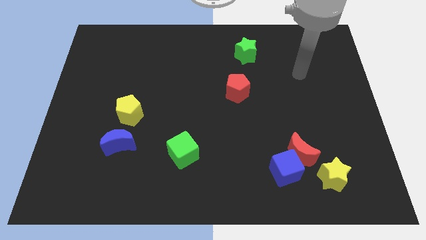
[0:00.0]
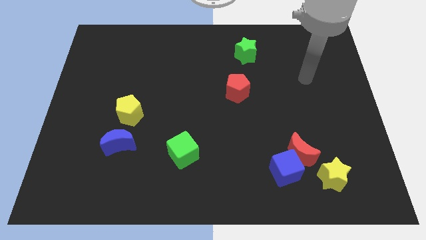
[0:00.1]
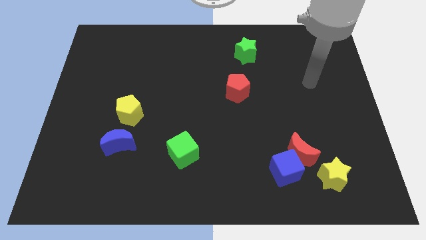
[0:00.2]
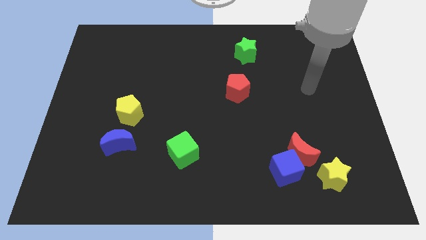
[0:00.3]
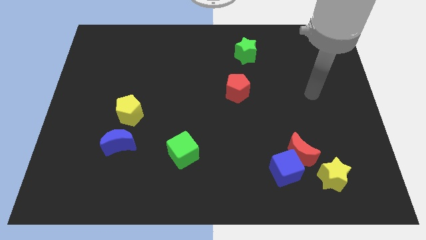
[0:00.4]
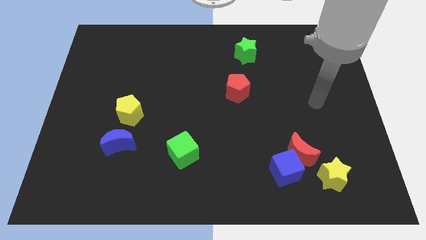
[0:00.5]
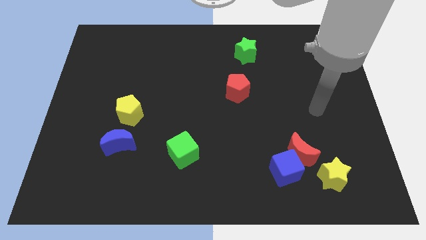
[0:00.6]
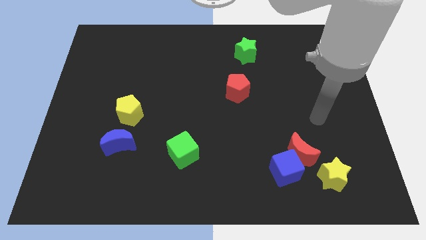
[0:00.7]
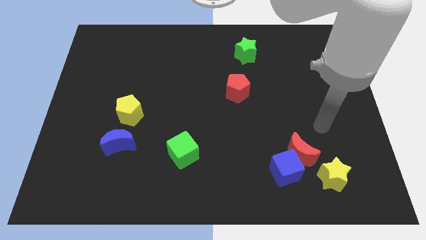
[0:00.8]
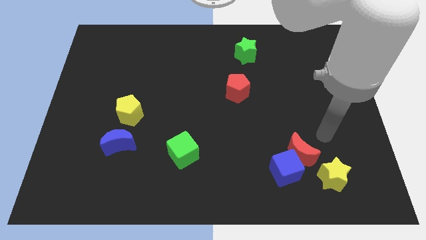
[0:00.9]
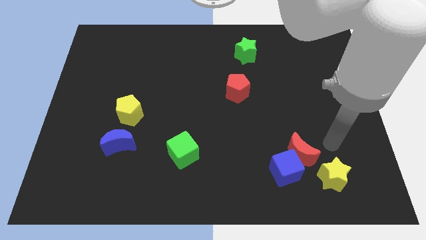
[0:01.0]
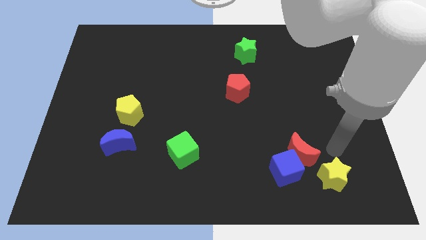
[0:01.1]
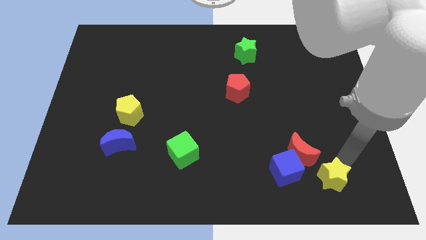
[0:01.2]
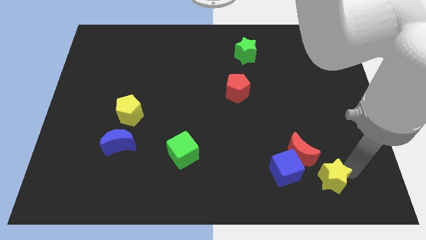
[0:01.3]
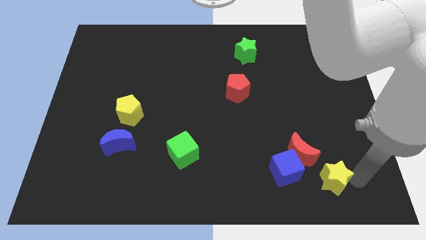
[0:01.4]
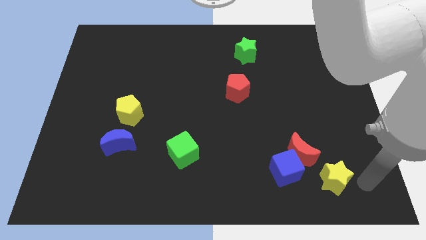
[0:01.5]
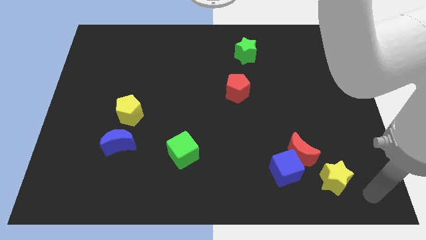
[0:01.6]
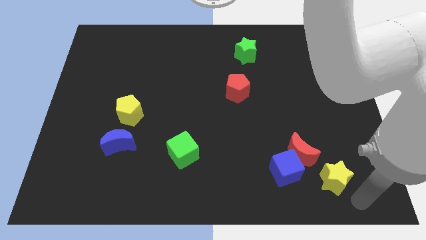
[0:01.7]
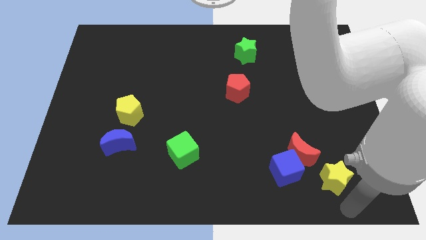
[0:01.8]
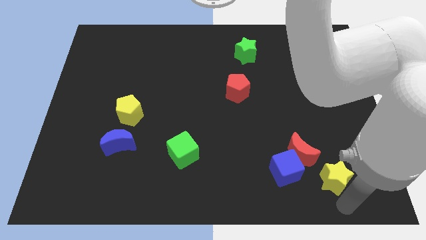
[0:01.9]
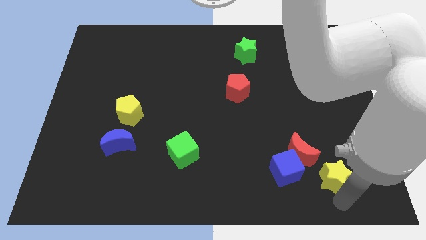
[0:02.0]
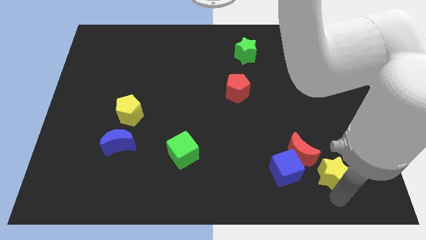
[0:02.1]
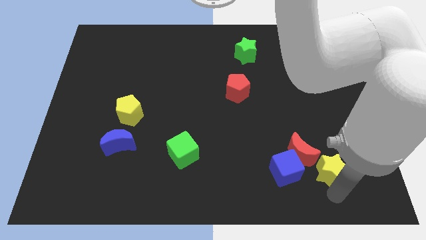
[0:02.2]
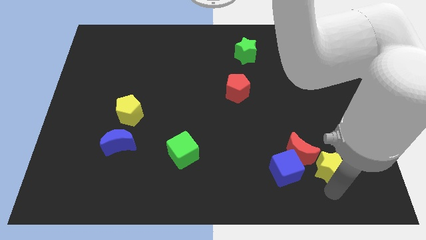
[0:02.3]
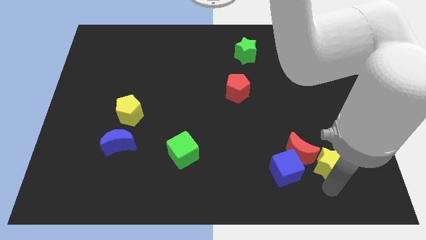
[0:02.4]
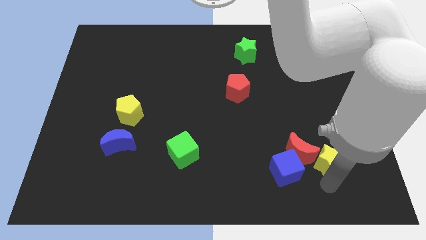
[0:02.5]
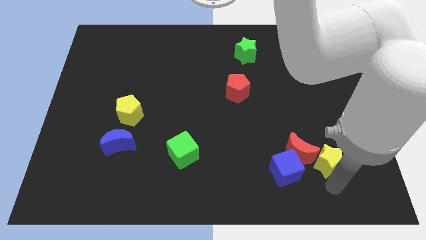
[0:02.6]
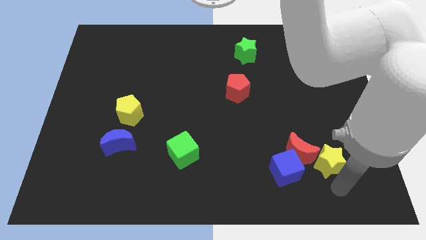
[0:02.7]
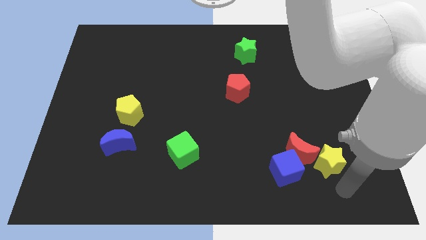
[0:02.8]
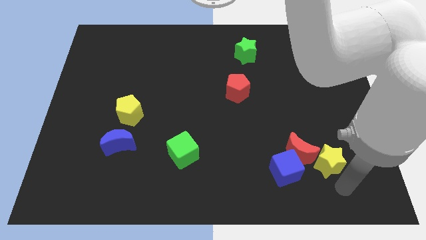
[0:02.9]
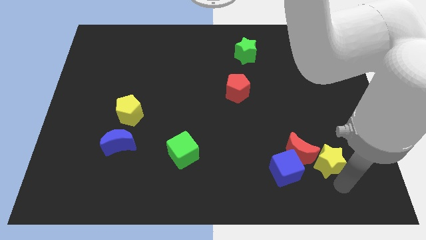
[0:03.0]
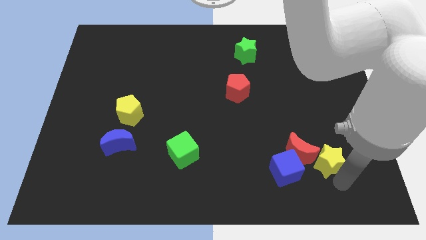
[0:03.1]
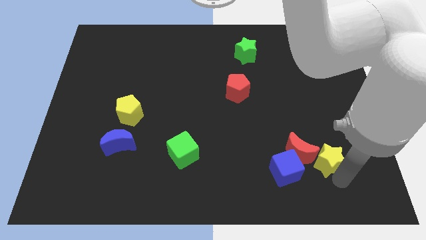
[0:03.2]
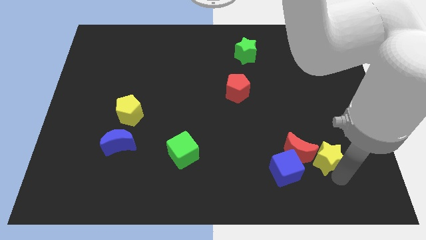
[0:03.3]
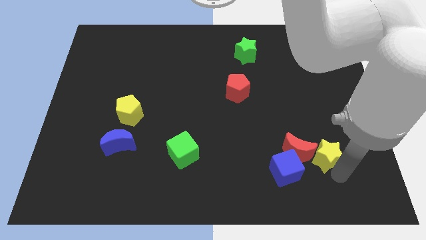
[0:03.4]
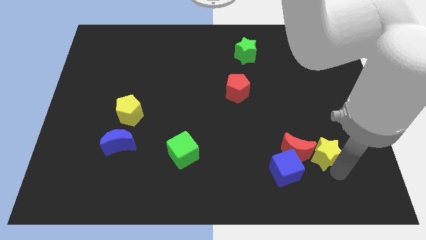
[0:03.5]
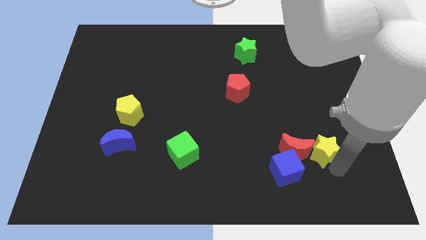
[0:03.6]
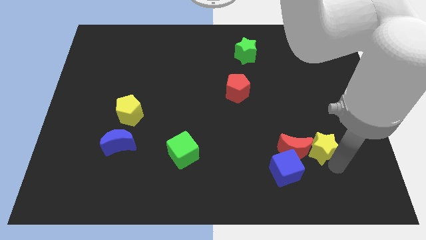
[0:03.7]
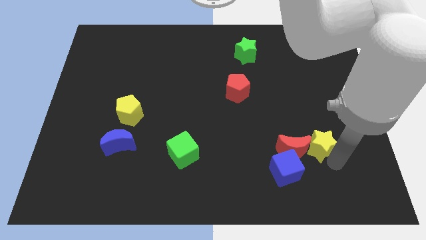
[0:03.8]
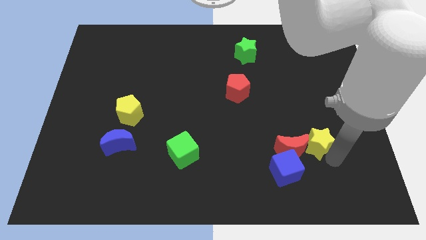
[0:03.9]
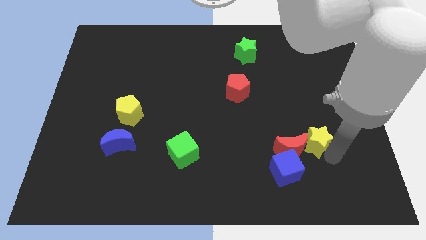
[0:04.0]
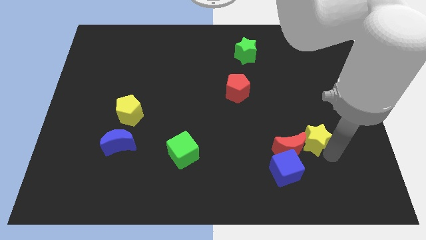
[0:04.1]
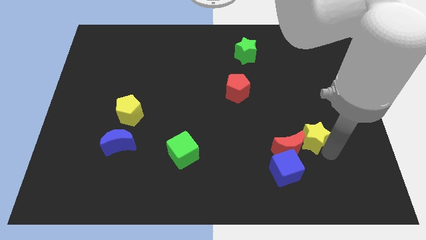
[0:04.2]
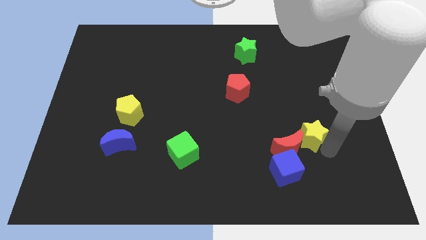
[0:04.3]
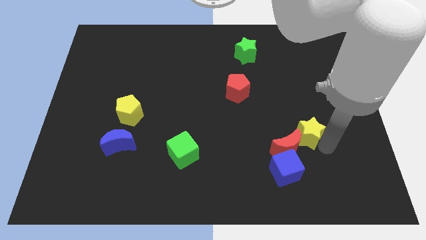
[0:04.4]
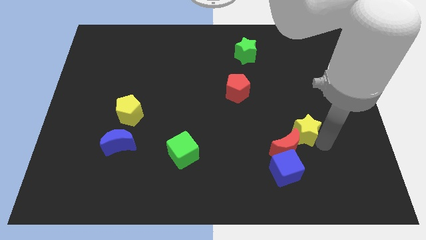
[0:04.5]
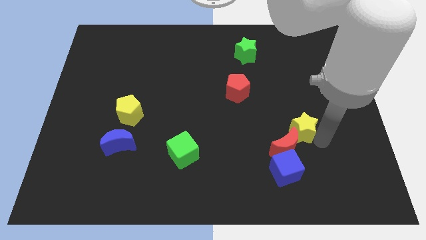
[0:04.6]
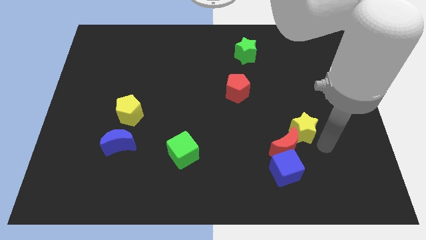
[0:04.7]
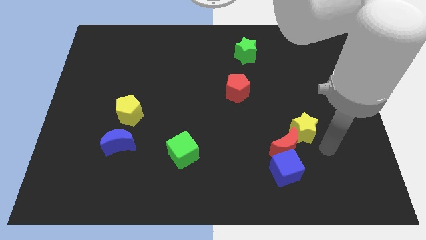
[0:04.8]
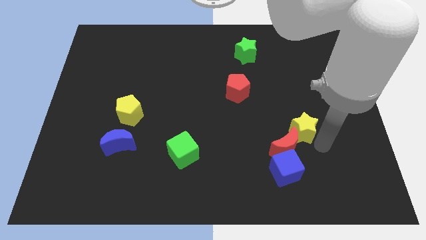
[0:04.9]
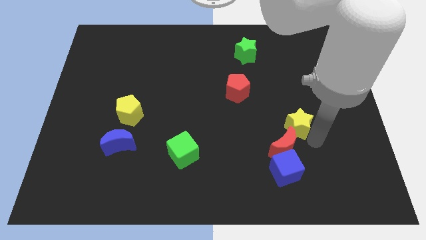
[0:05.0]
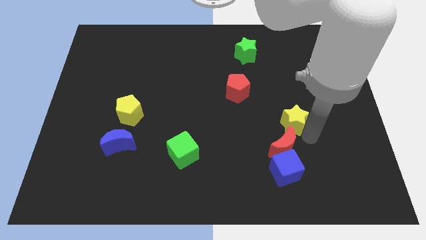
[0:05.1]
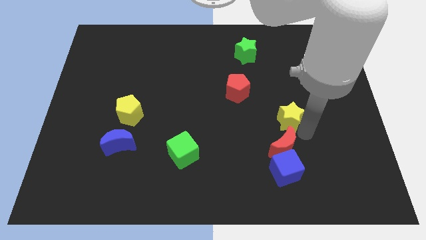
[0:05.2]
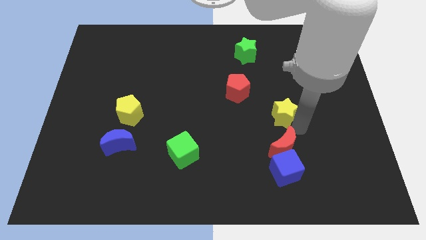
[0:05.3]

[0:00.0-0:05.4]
slide the yellow star diagonally down and to the right of the red pentagon

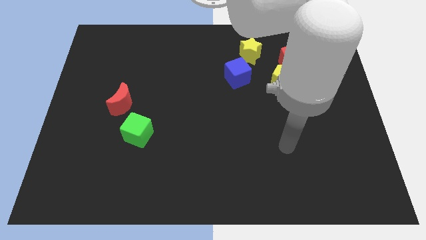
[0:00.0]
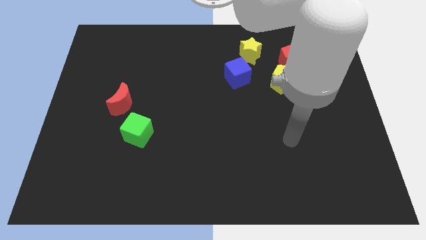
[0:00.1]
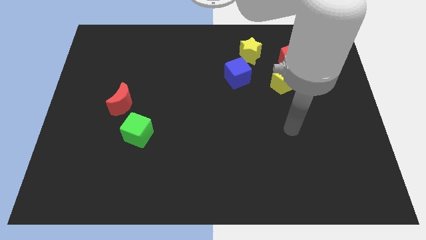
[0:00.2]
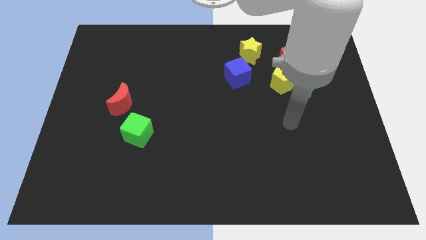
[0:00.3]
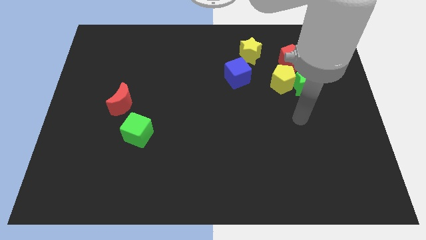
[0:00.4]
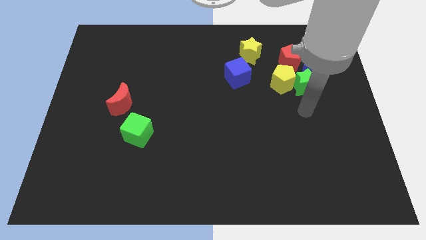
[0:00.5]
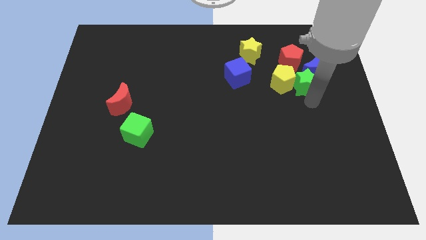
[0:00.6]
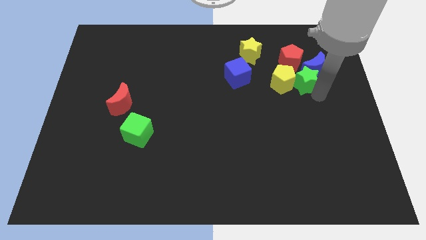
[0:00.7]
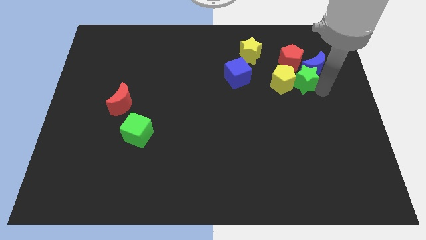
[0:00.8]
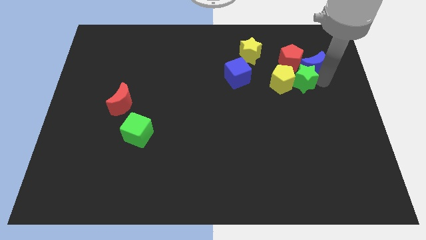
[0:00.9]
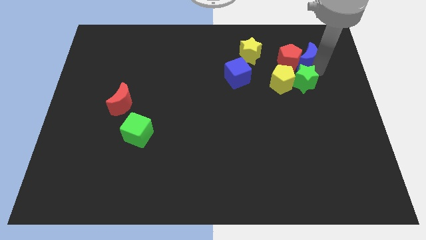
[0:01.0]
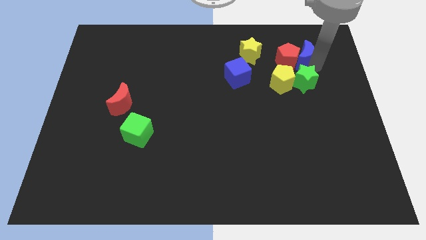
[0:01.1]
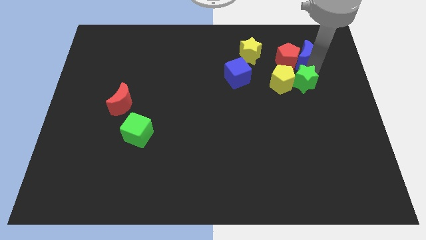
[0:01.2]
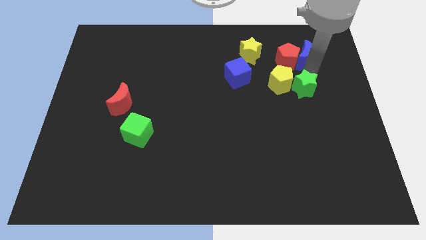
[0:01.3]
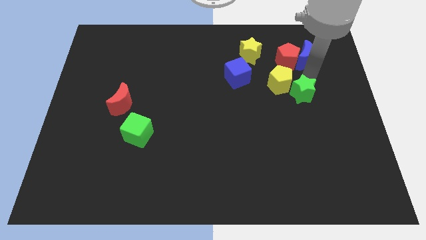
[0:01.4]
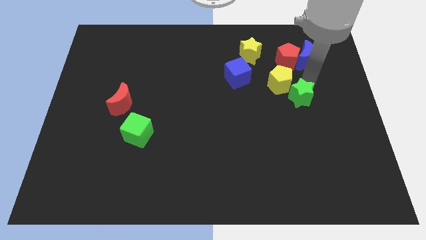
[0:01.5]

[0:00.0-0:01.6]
push the green star to the bottom of the yellow pentagon

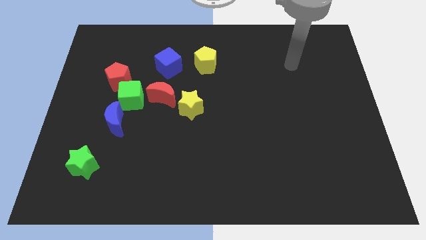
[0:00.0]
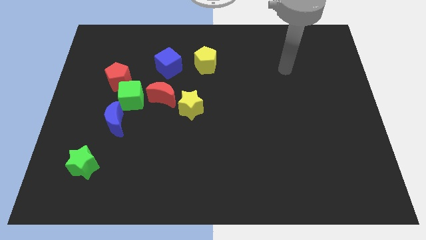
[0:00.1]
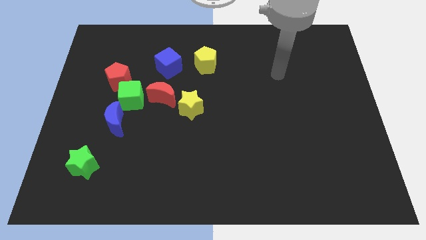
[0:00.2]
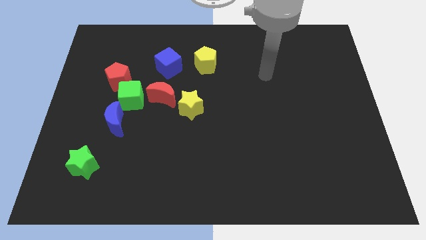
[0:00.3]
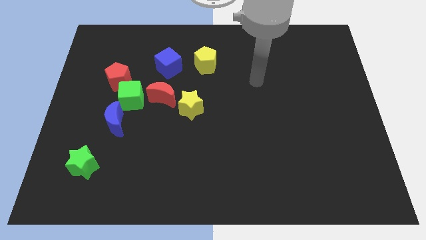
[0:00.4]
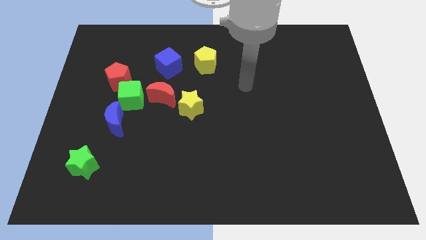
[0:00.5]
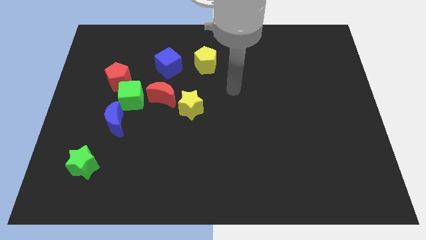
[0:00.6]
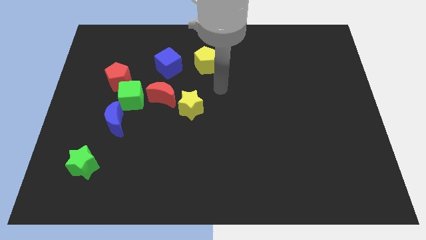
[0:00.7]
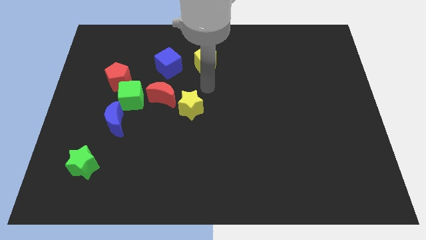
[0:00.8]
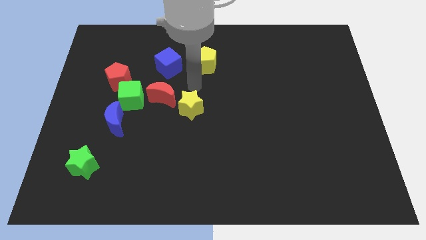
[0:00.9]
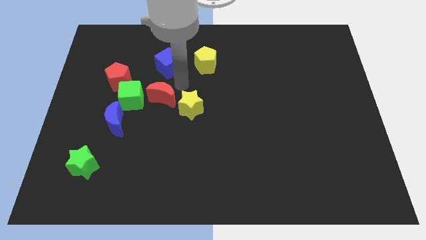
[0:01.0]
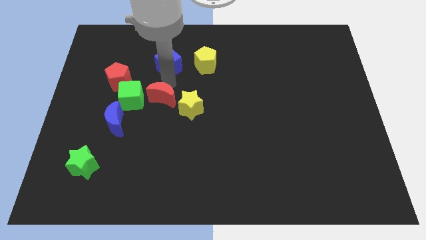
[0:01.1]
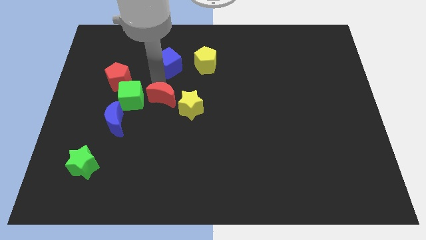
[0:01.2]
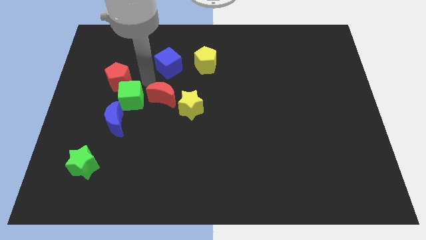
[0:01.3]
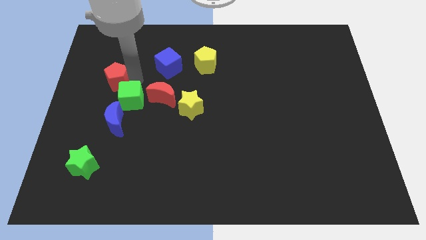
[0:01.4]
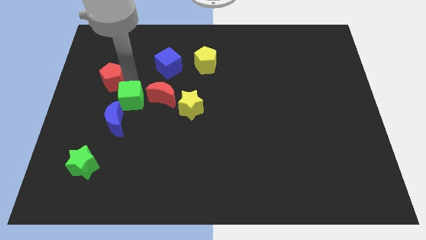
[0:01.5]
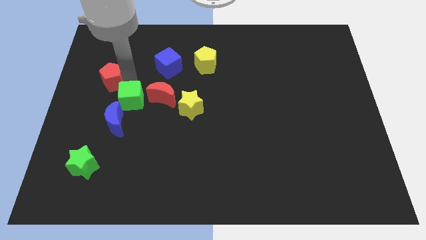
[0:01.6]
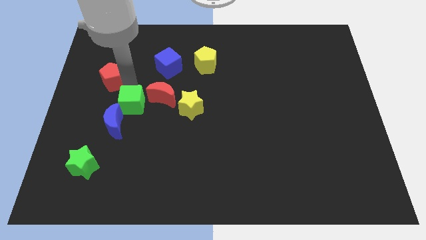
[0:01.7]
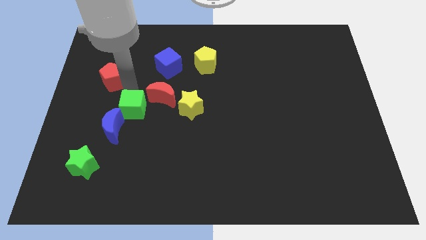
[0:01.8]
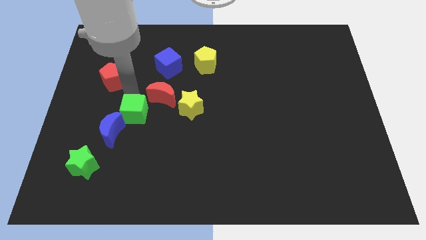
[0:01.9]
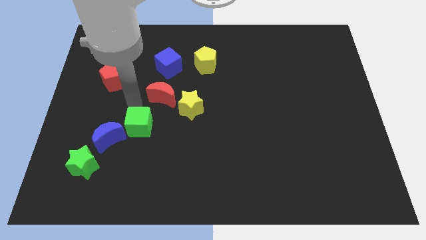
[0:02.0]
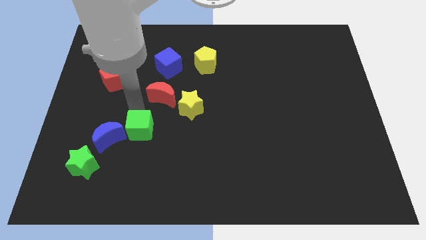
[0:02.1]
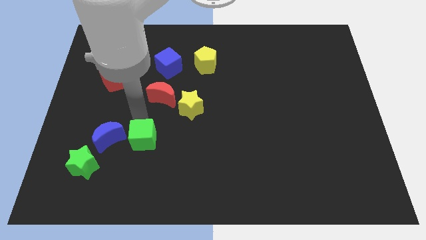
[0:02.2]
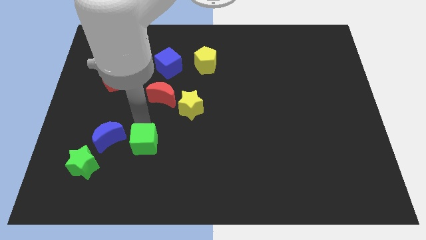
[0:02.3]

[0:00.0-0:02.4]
put the green cube to the bottom right of the blue moon
